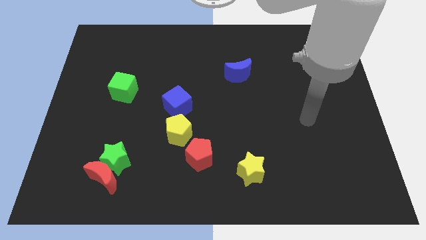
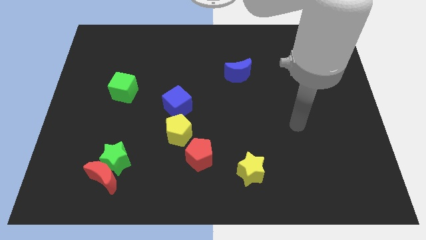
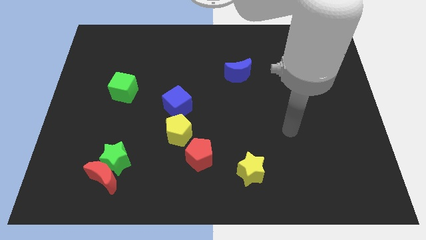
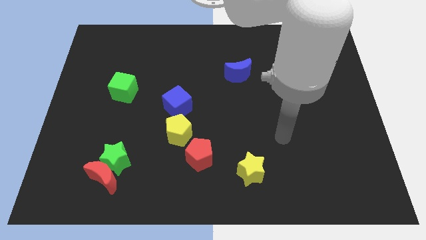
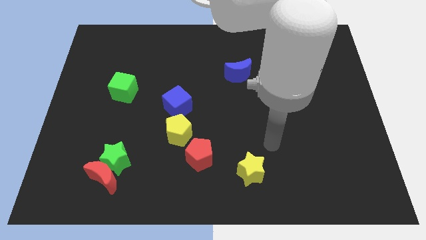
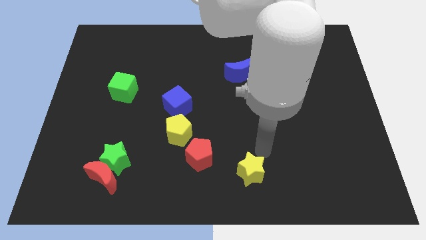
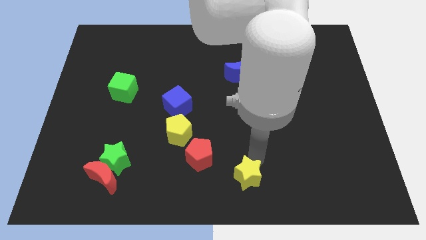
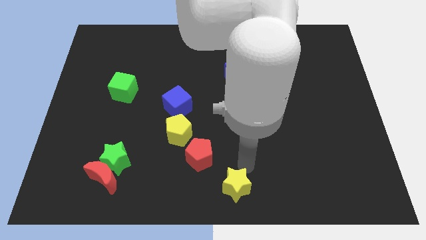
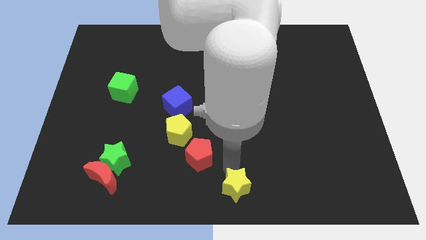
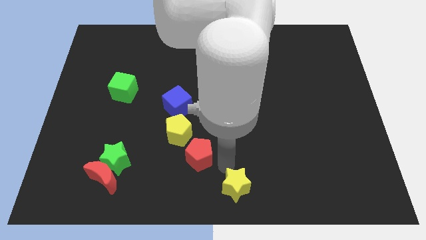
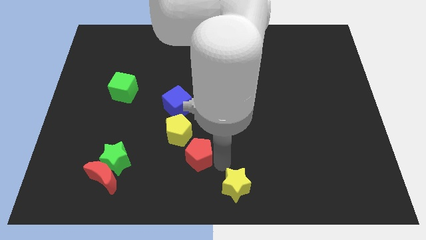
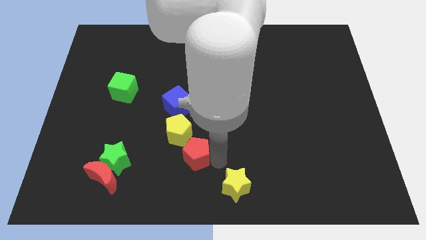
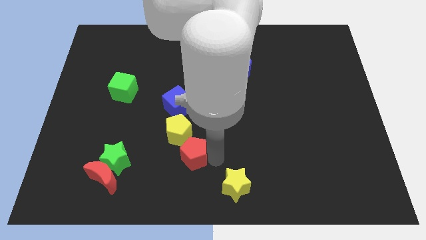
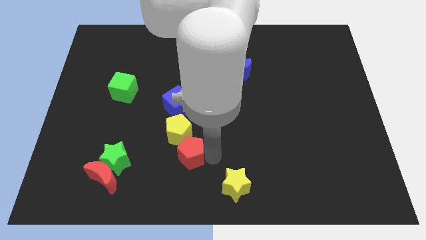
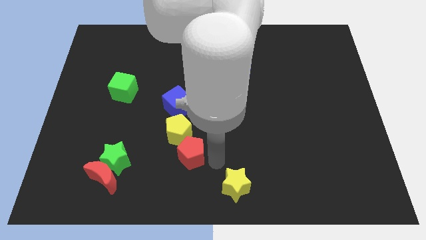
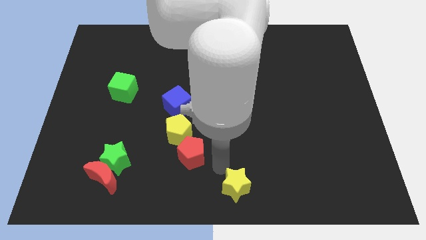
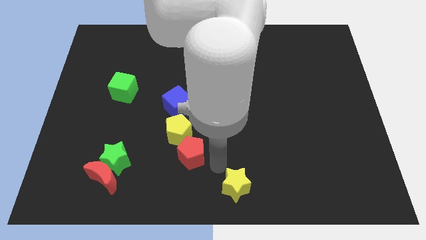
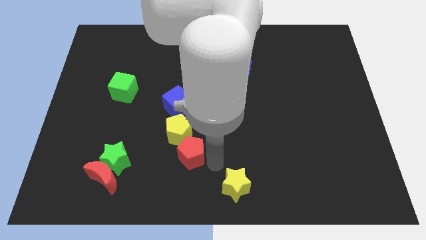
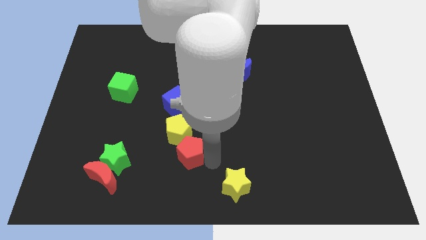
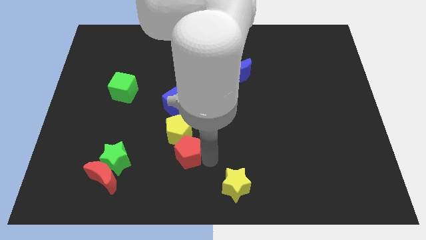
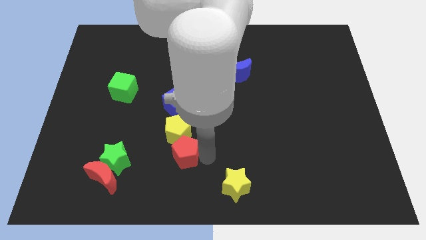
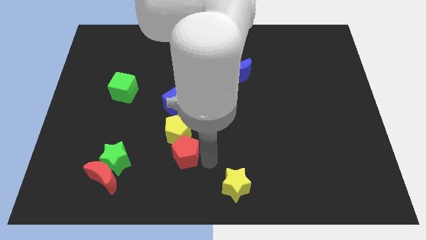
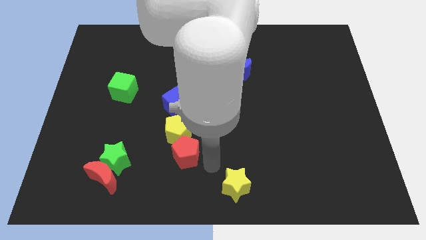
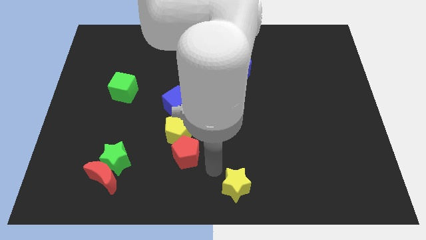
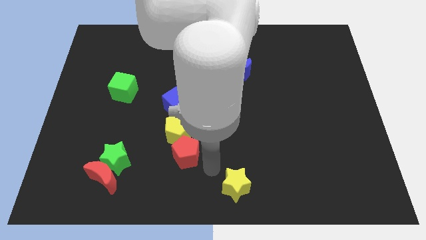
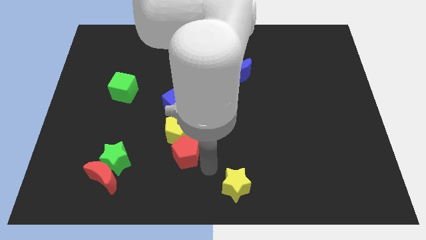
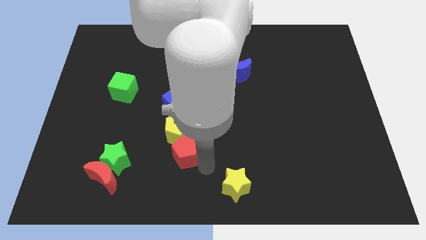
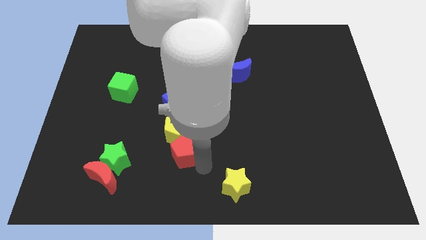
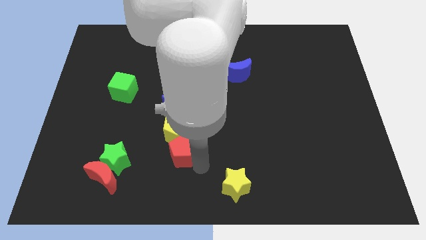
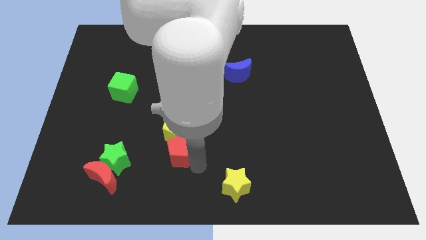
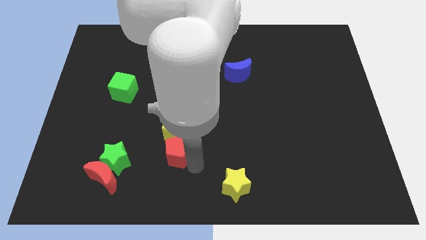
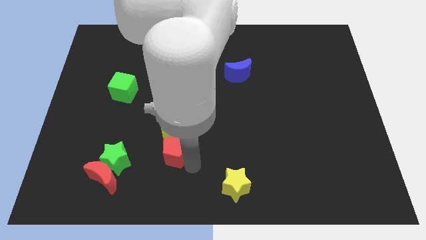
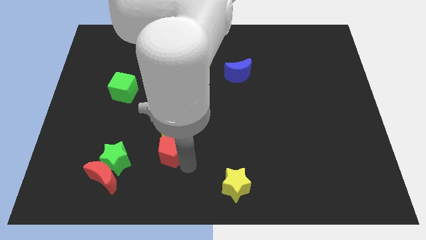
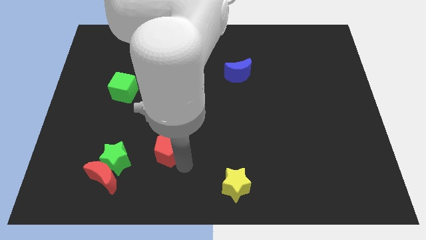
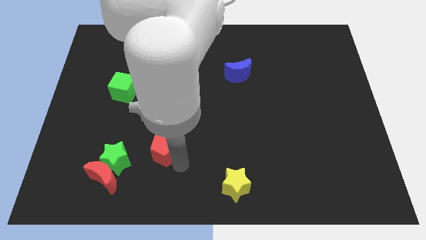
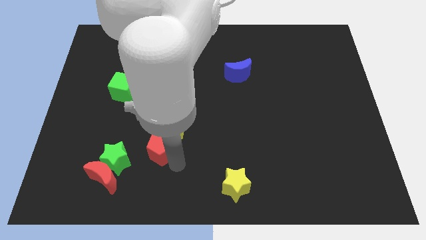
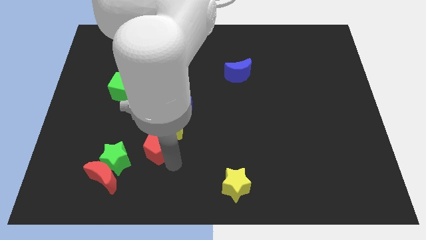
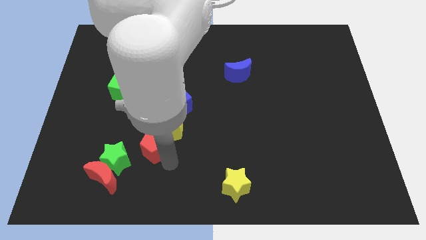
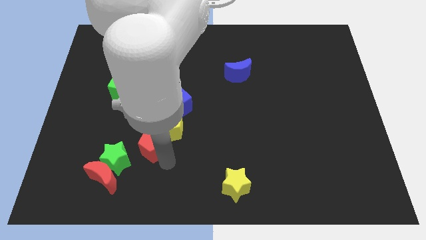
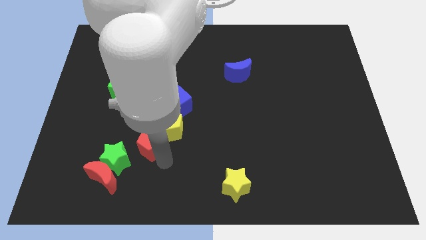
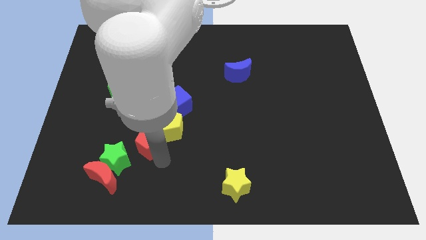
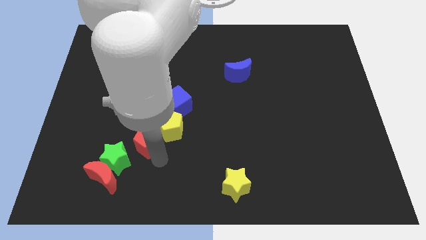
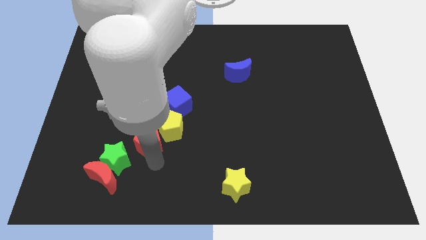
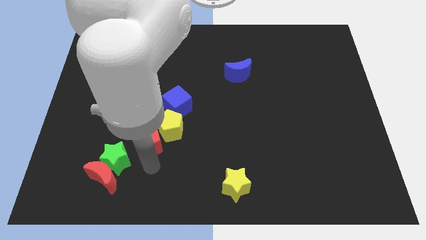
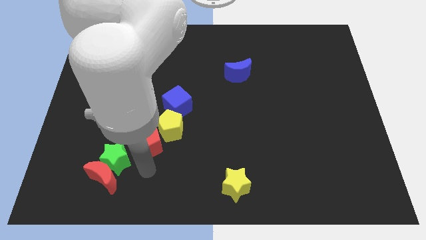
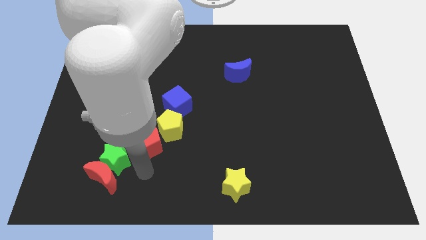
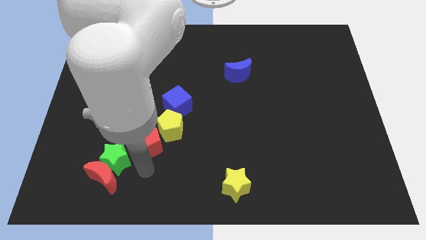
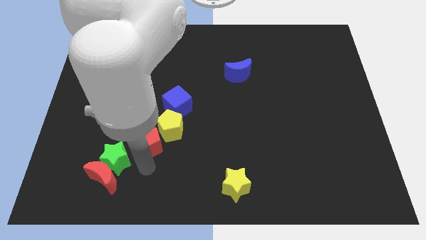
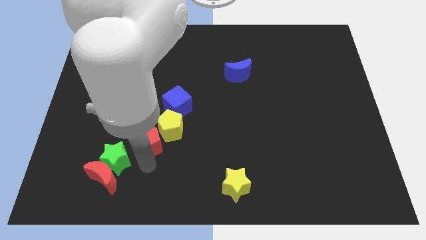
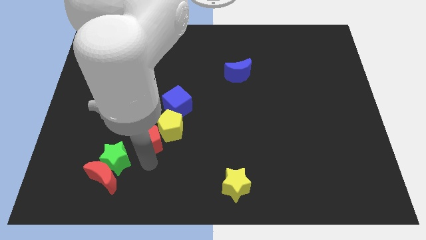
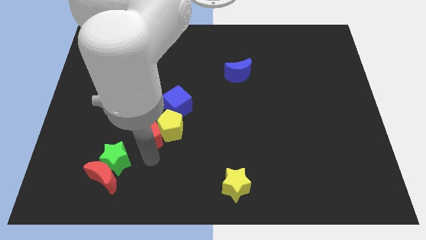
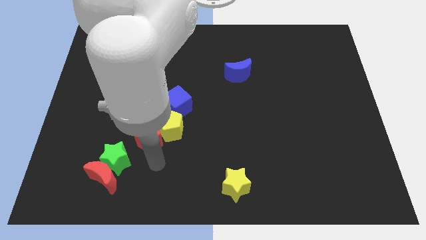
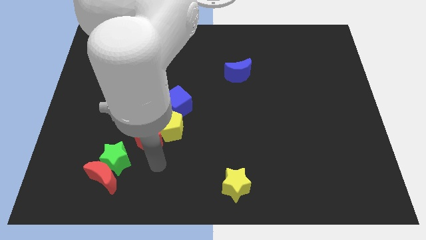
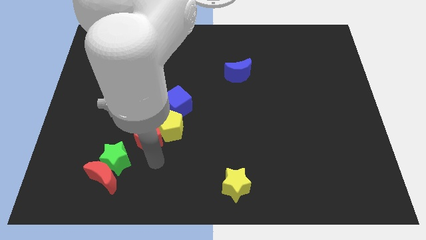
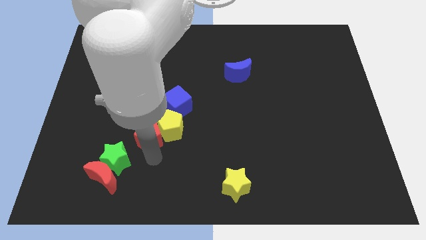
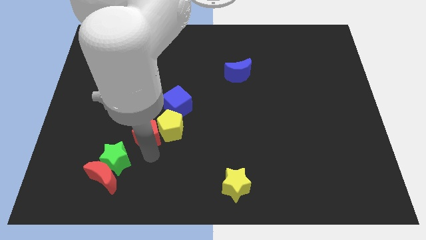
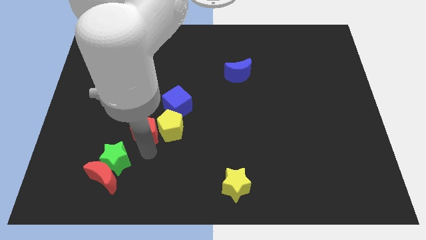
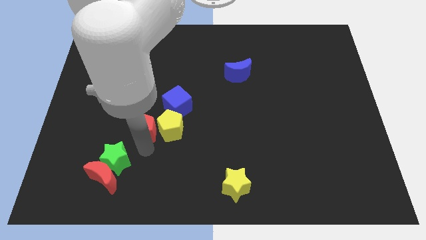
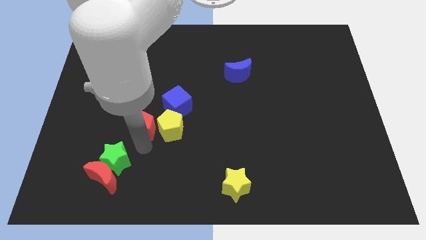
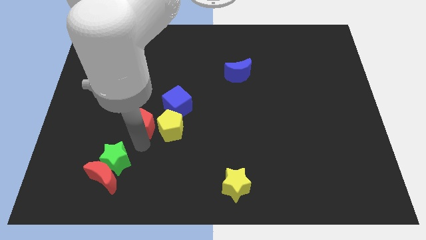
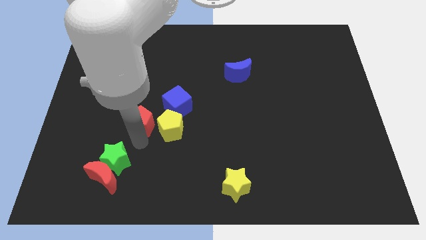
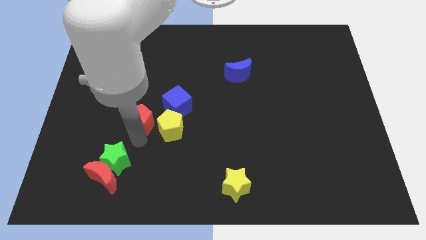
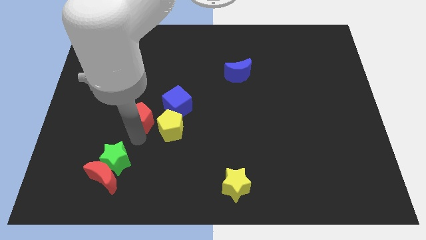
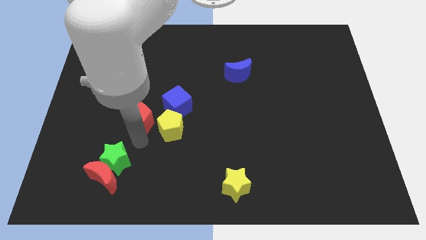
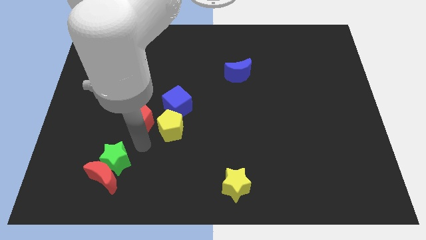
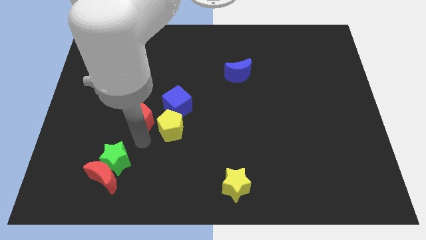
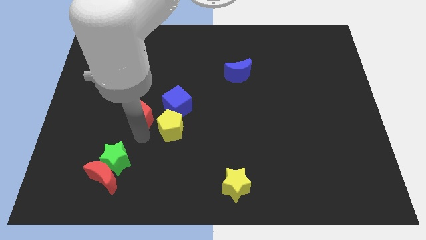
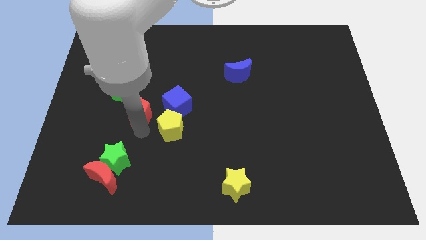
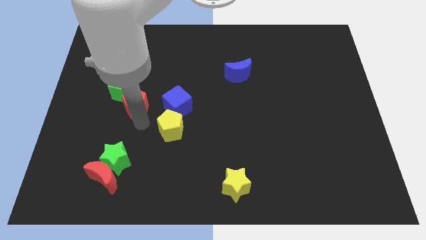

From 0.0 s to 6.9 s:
slide the red pentagon to the green cube

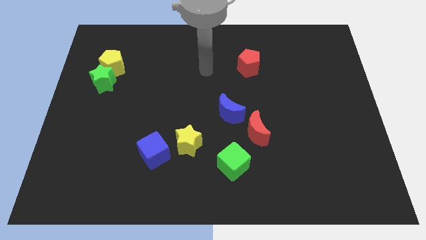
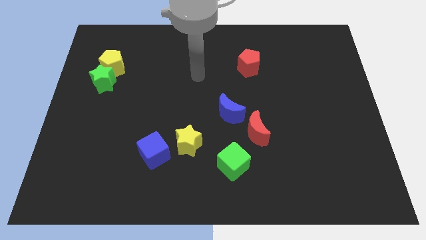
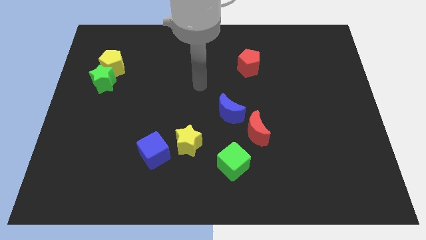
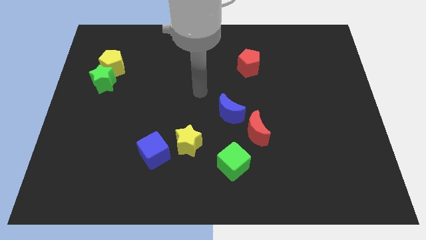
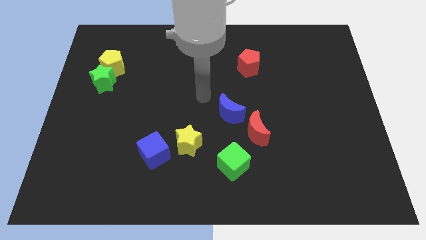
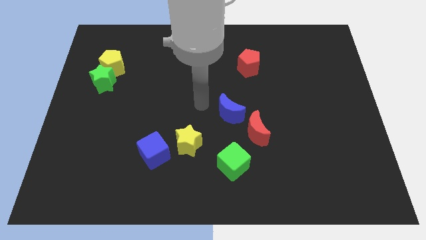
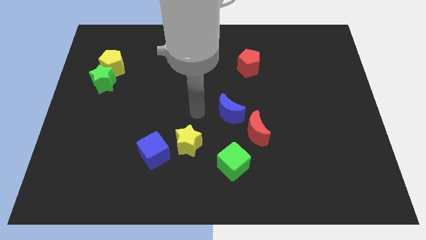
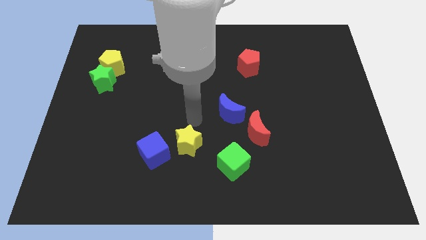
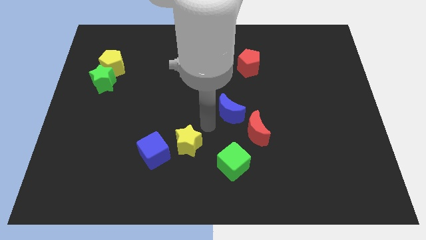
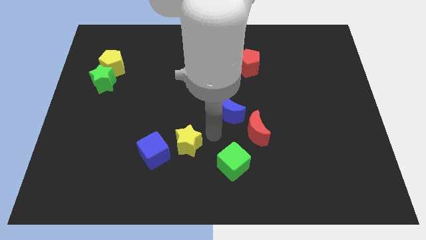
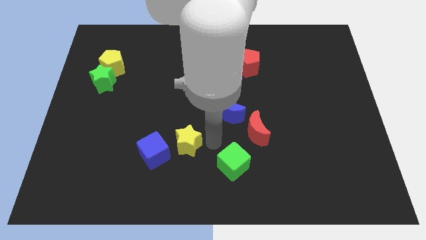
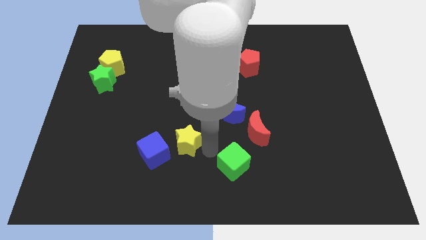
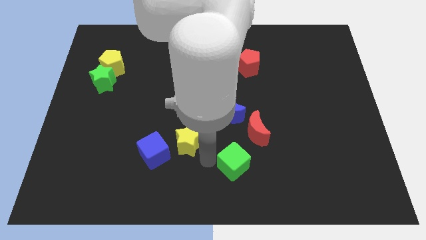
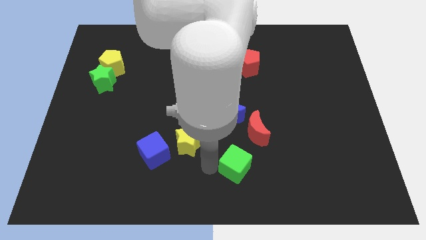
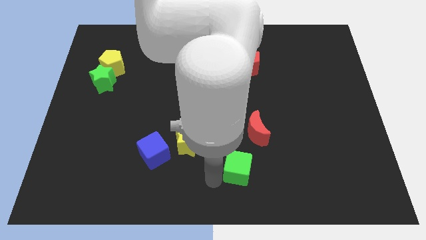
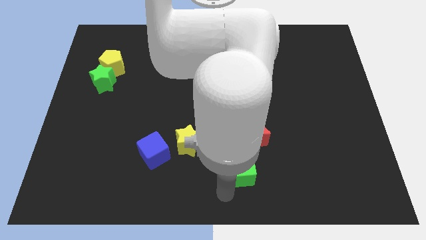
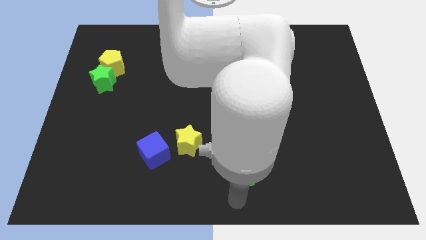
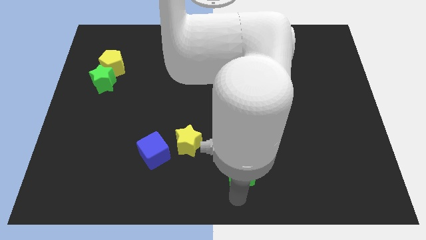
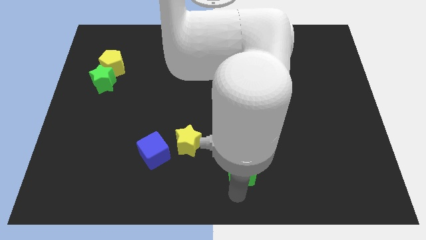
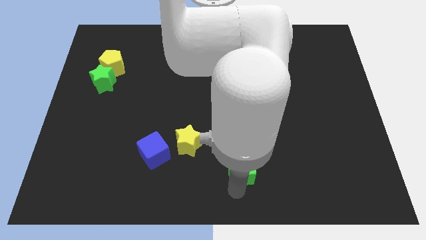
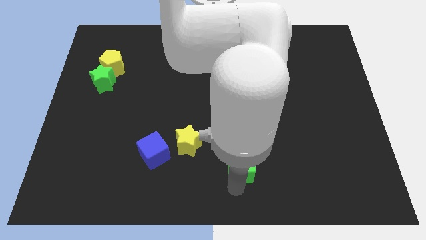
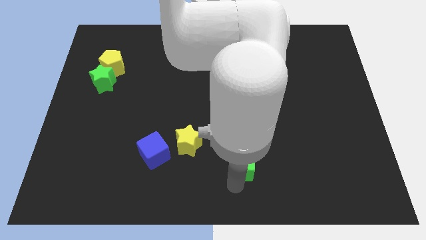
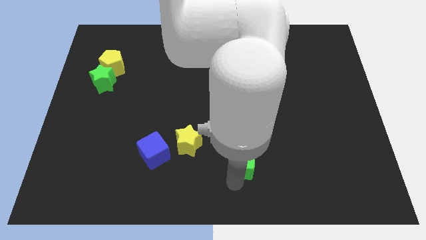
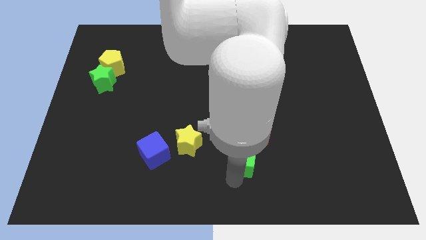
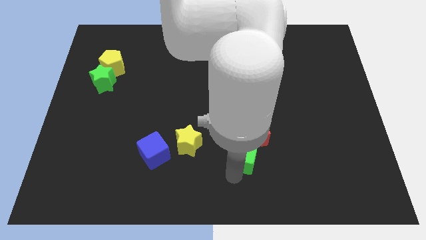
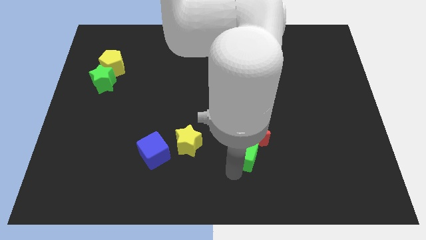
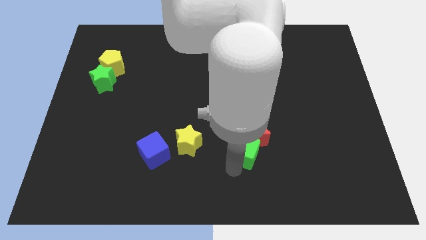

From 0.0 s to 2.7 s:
move the green cube next to the red moon
